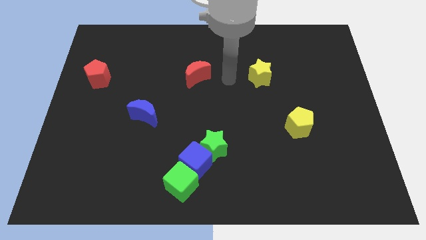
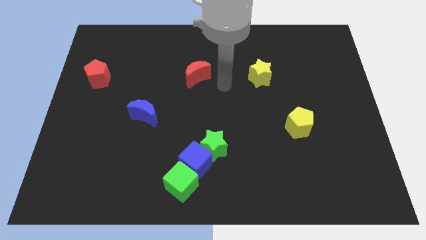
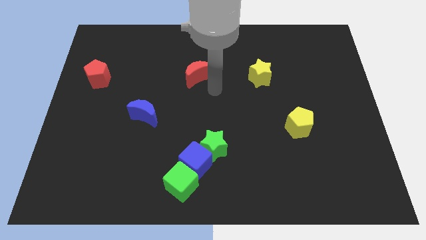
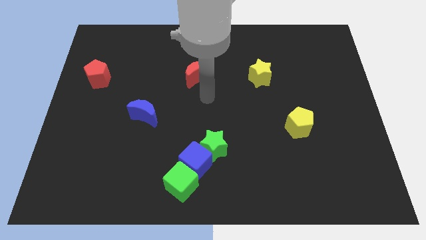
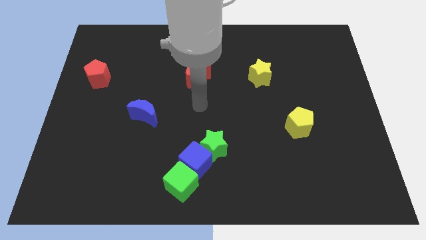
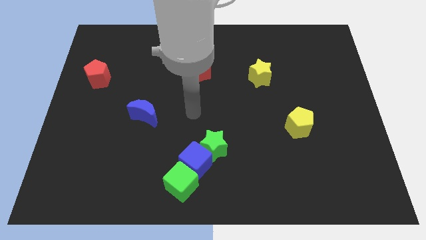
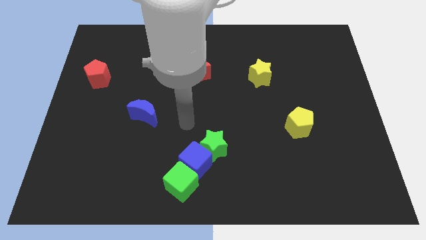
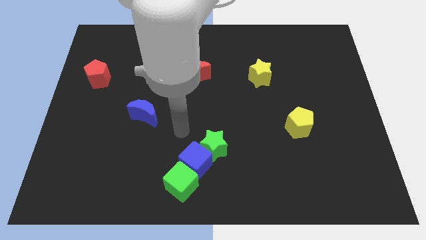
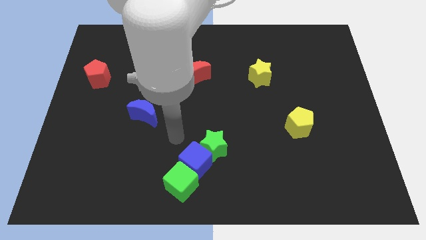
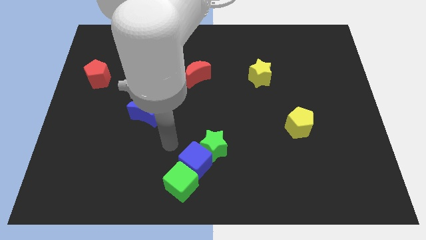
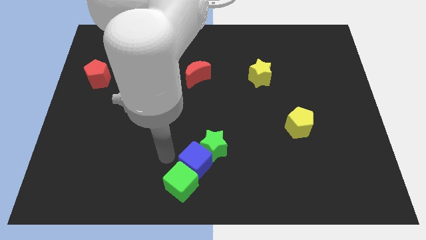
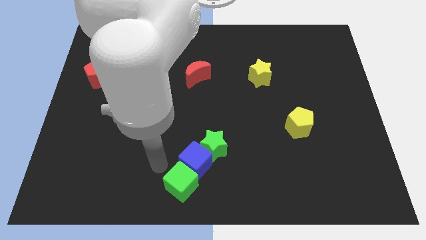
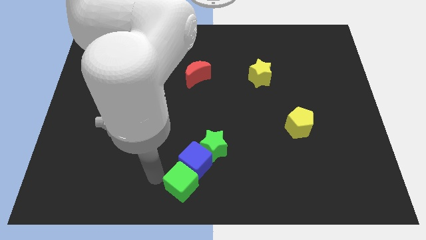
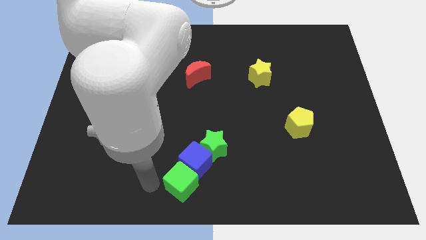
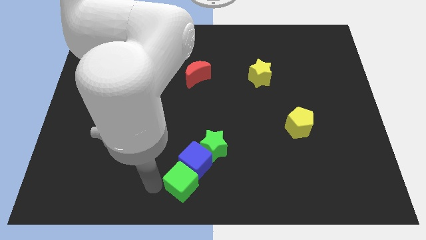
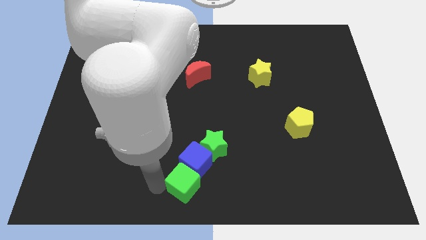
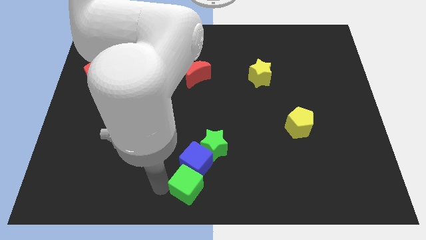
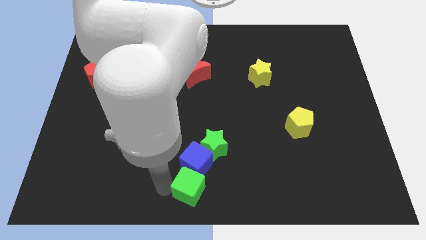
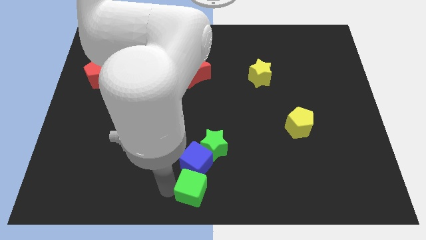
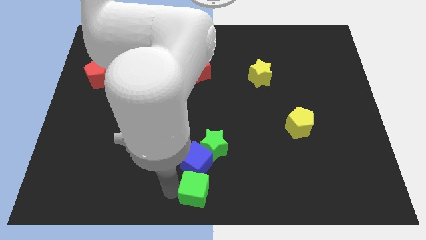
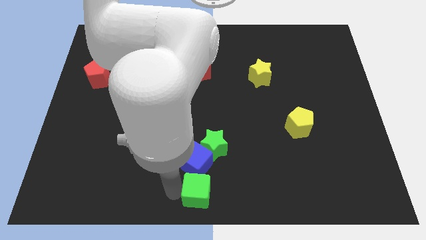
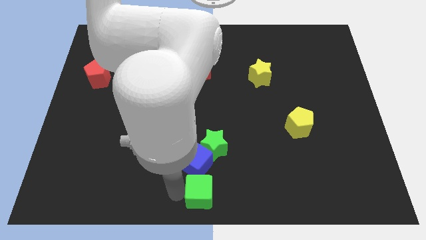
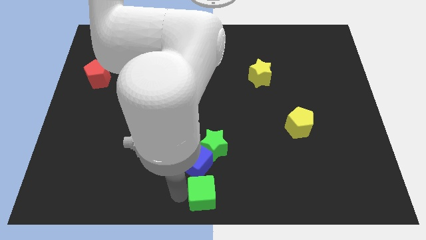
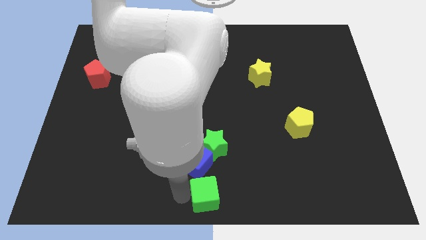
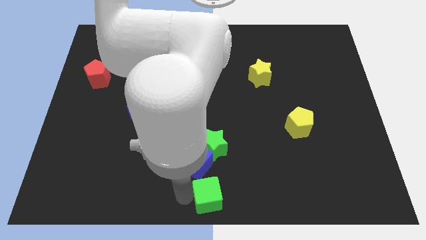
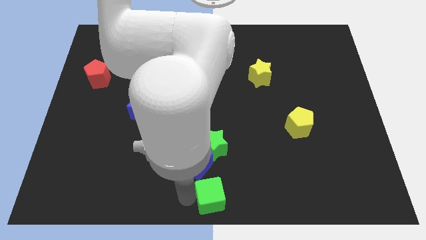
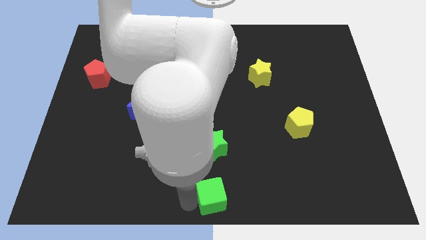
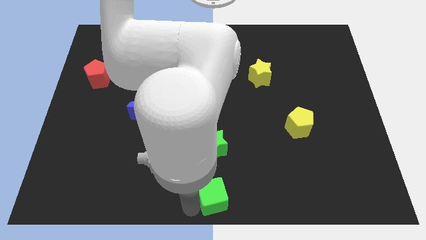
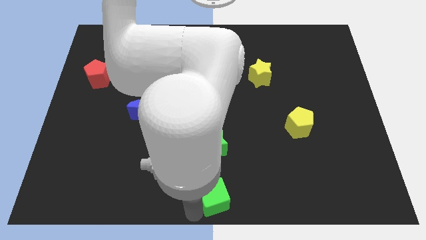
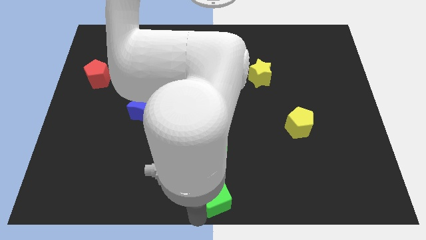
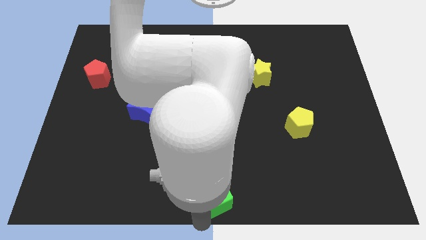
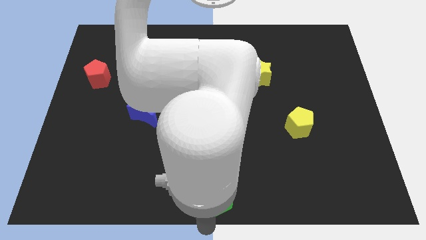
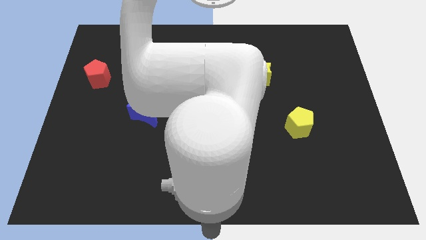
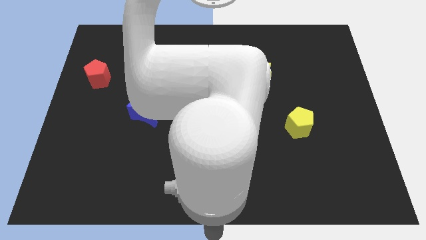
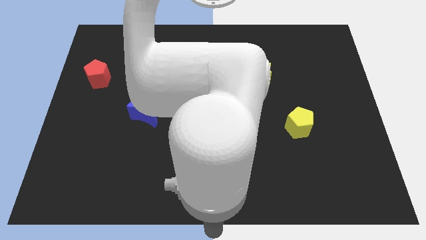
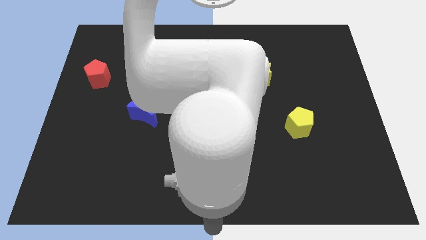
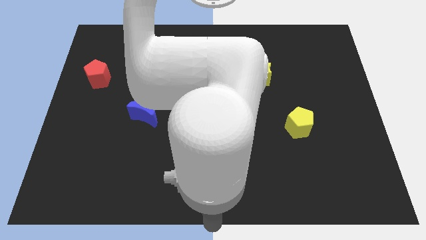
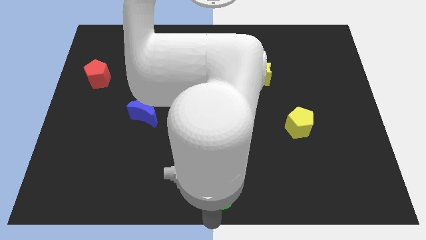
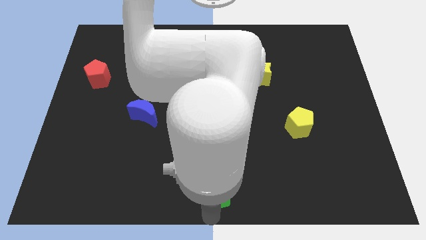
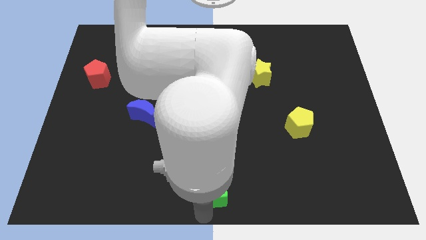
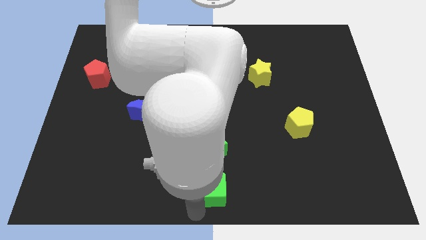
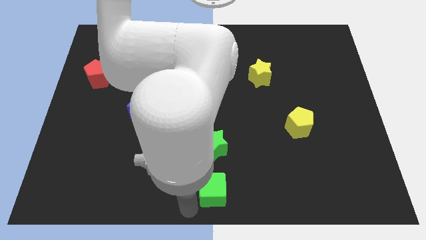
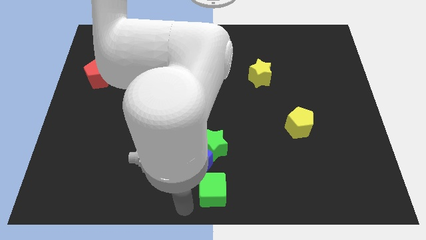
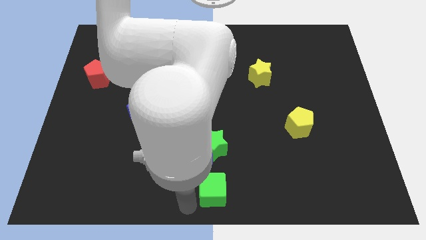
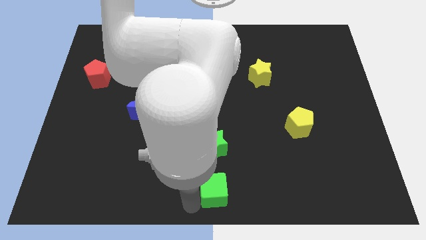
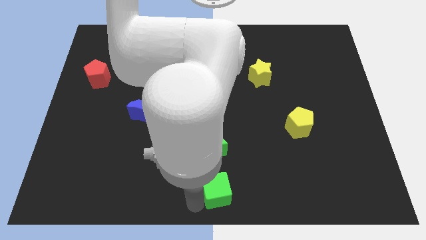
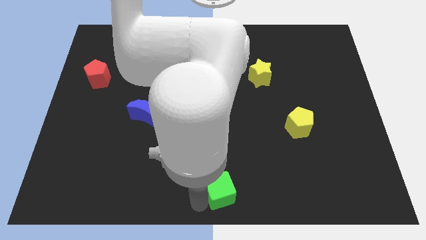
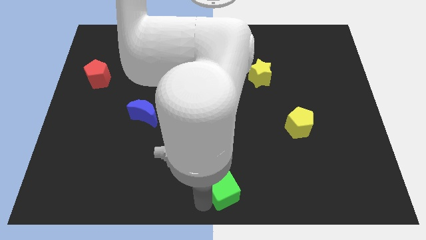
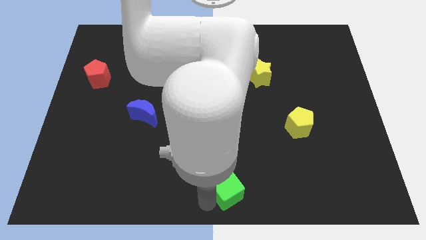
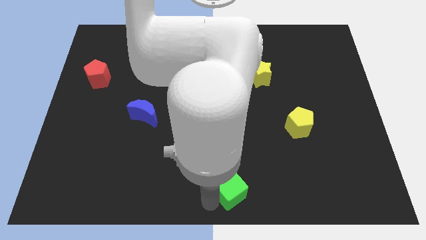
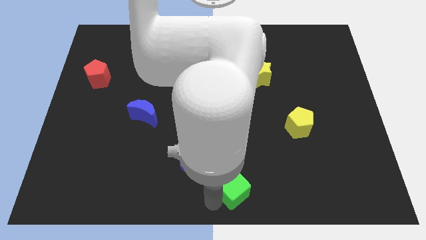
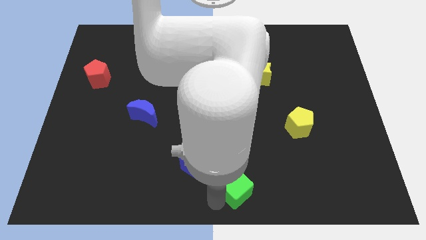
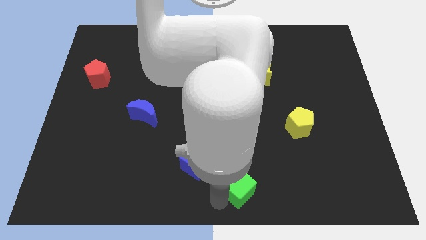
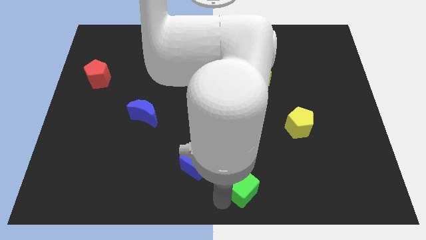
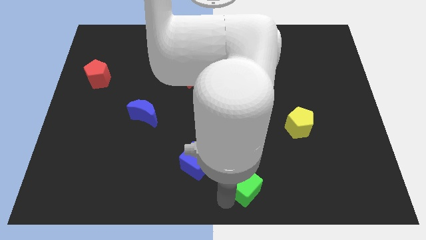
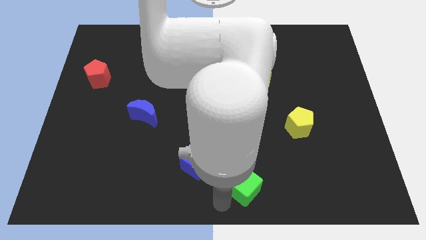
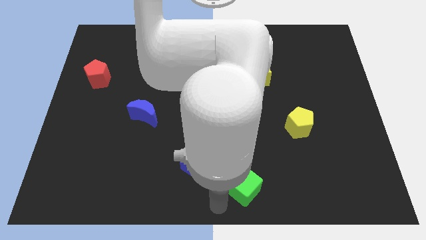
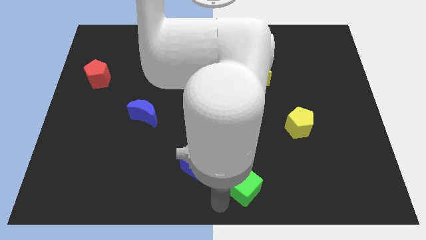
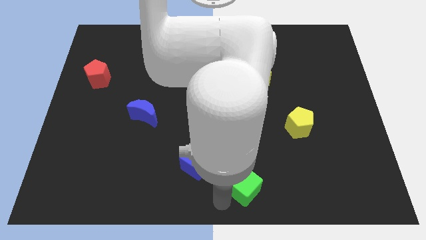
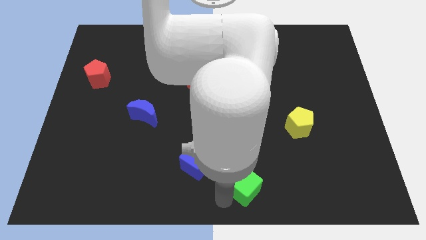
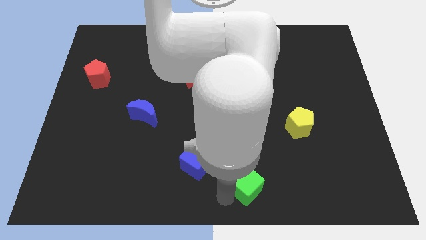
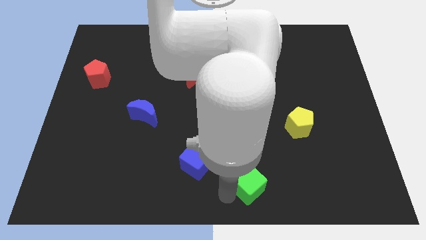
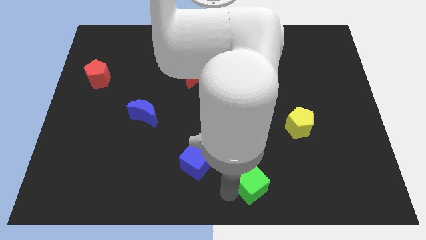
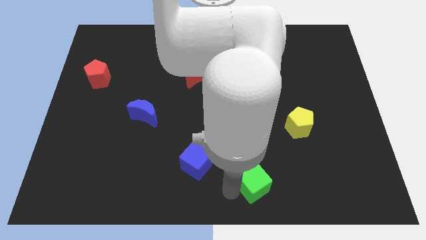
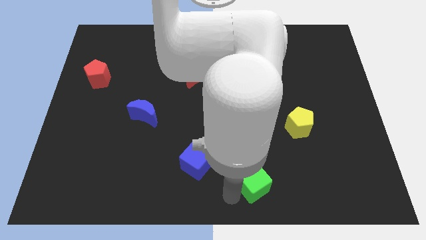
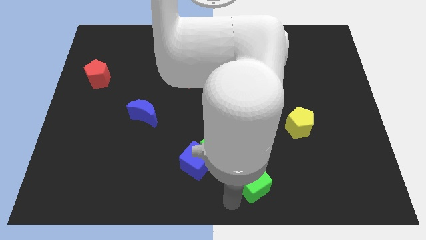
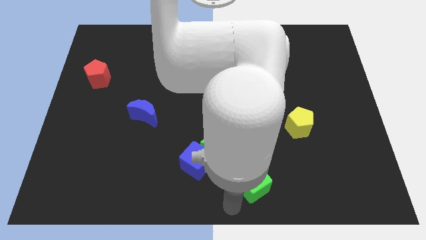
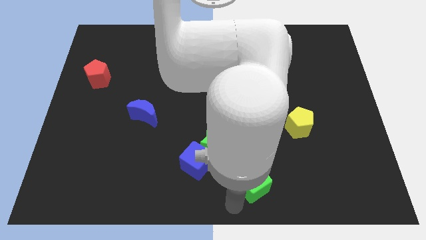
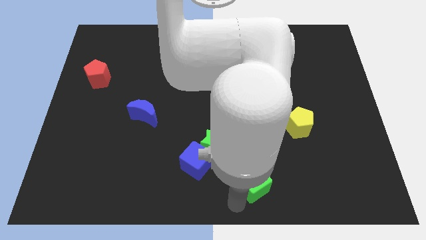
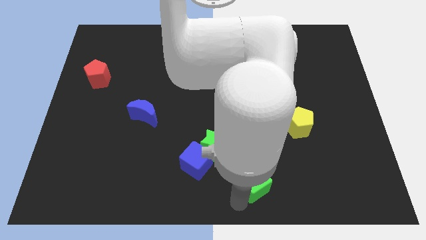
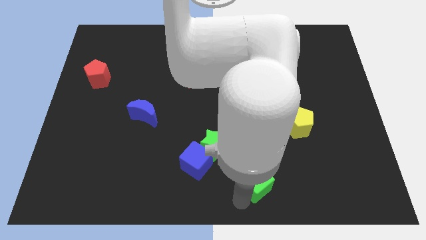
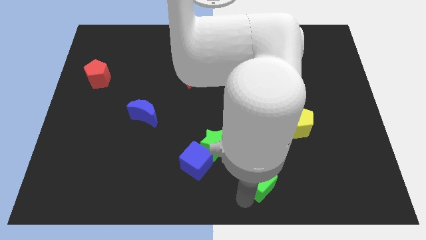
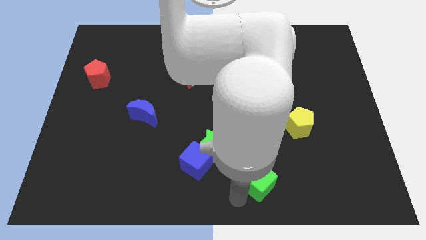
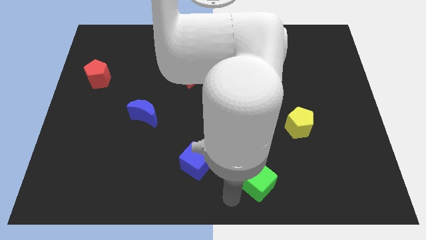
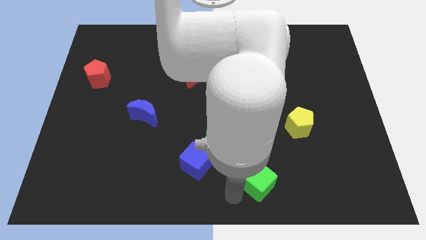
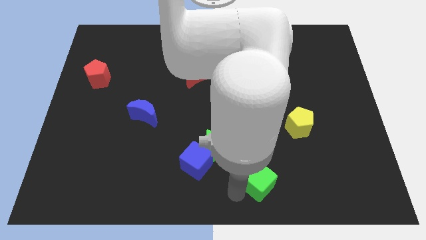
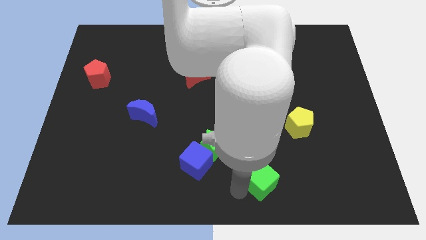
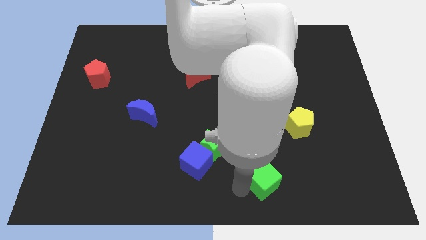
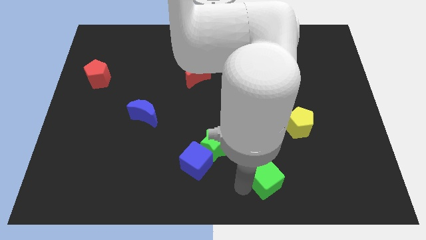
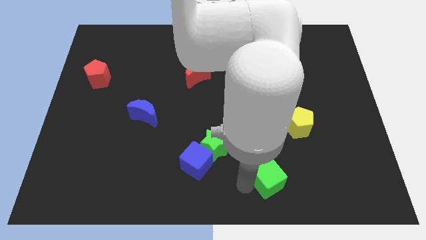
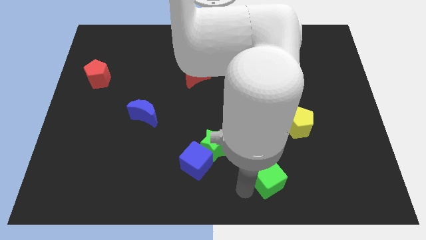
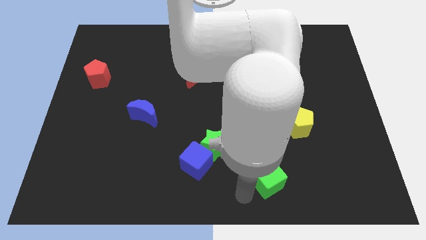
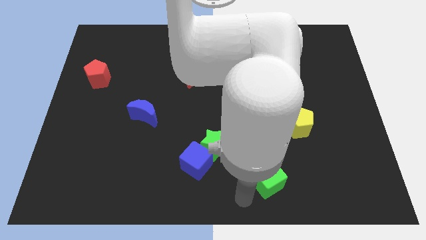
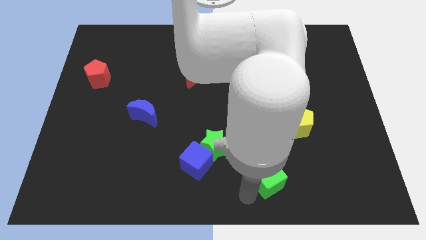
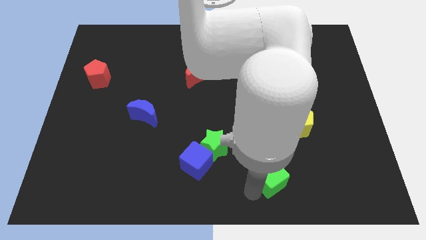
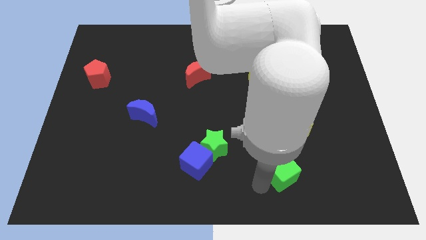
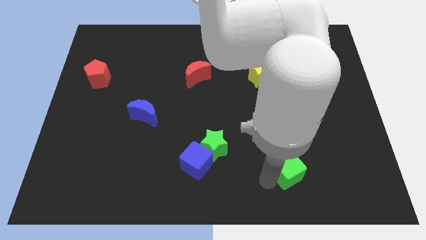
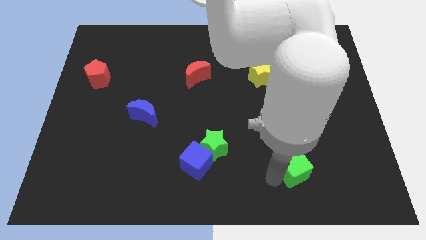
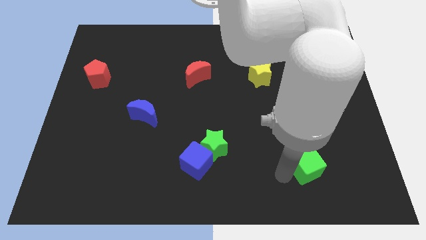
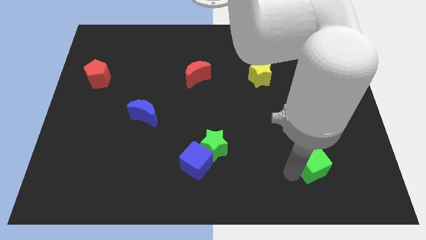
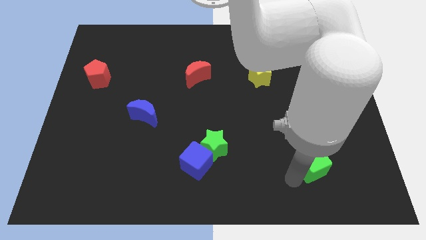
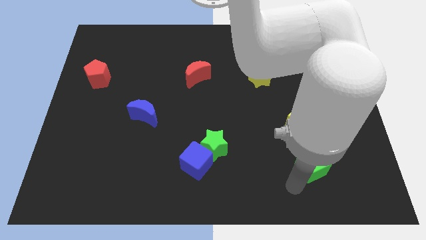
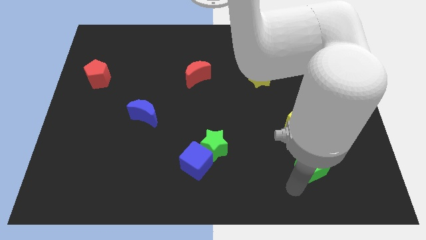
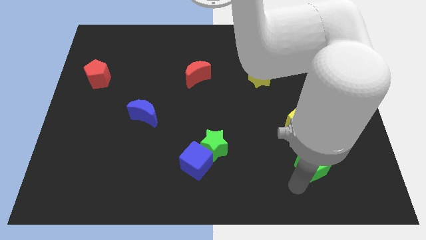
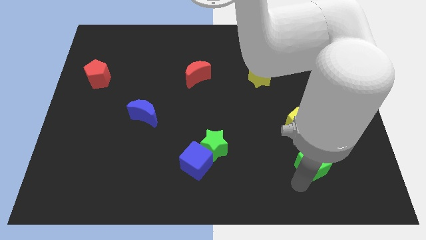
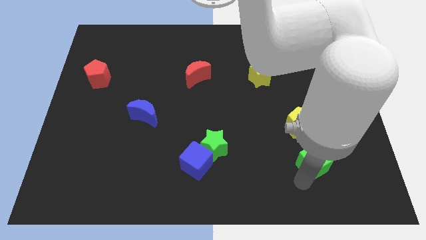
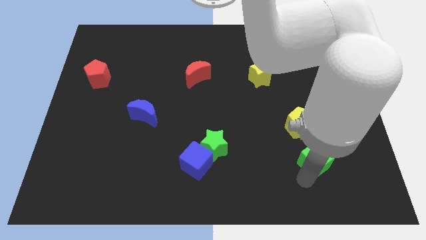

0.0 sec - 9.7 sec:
move the green cube diagonally down and to the right of the yellow pentagon
